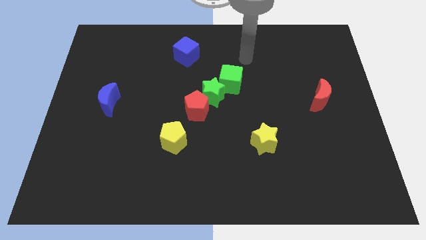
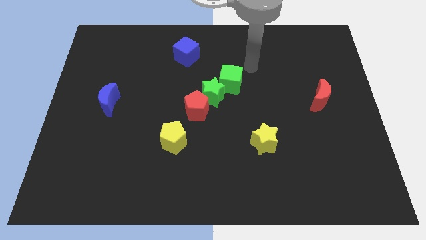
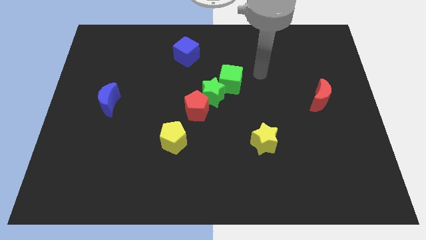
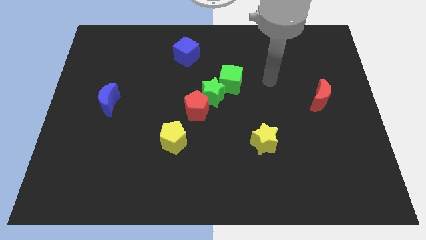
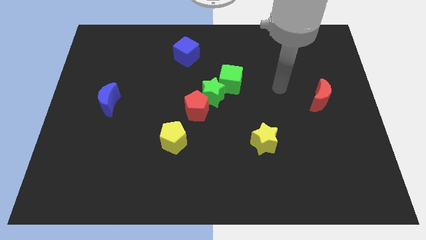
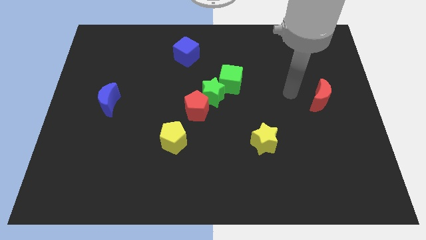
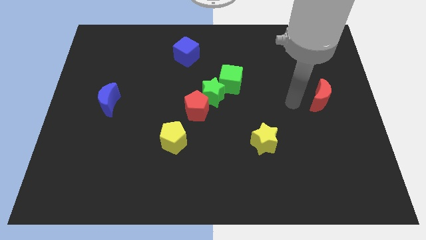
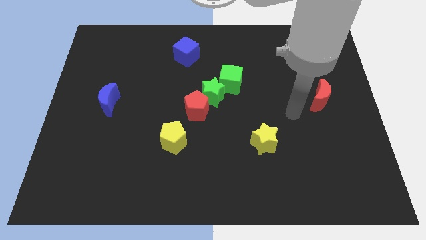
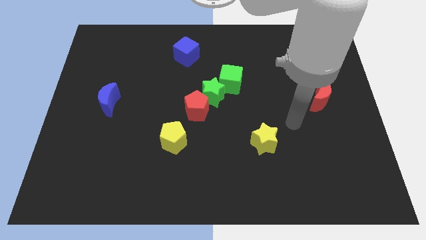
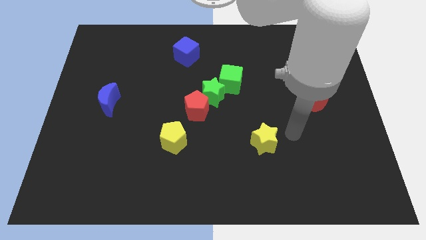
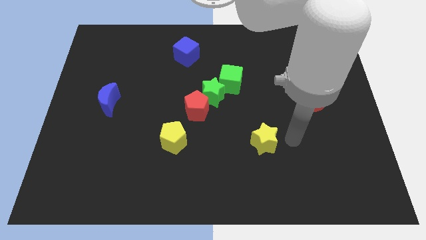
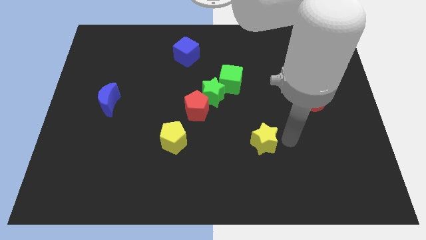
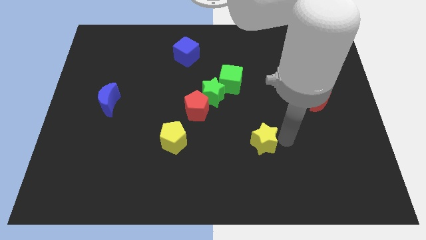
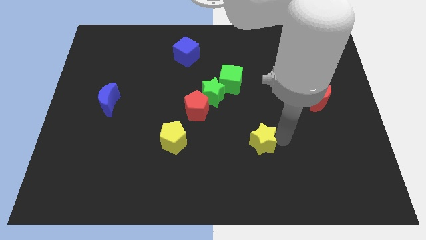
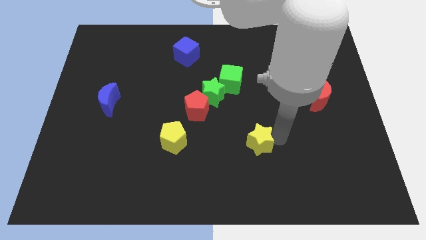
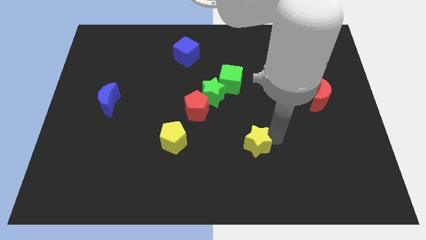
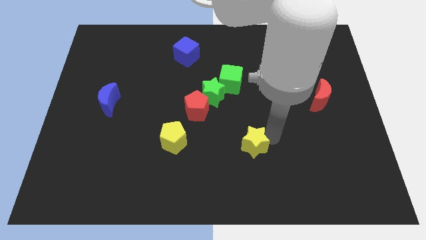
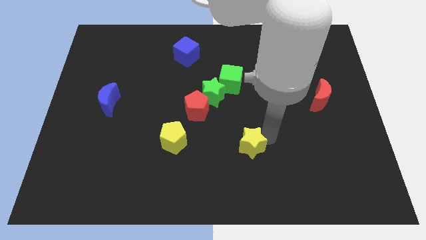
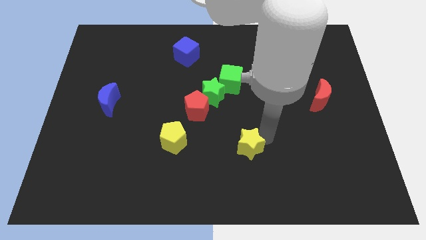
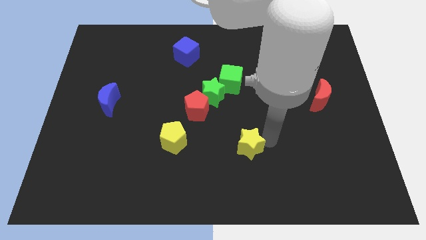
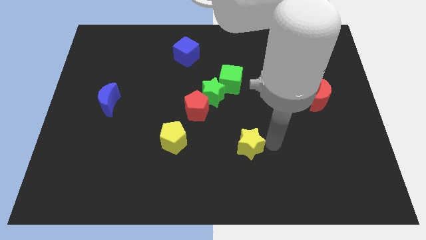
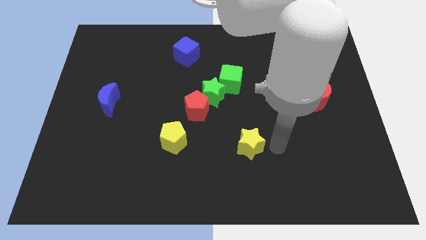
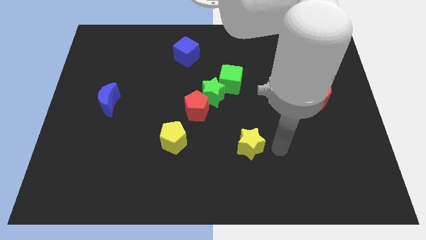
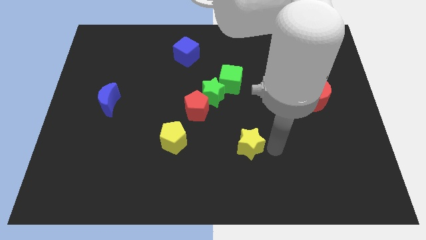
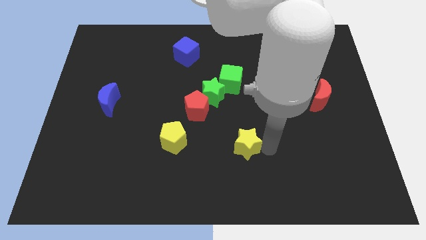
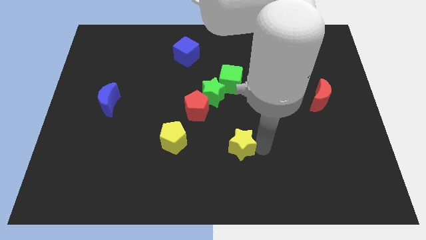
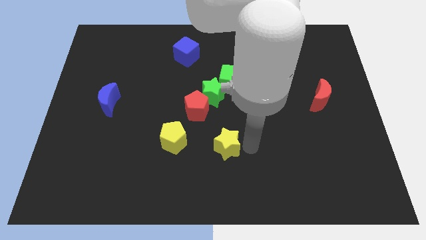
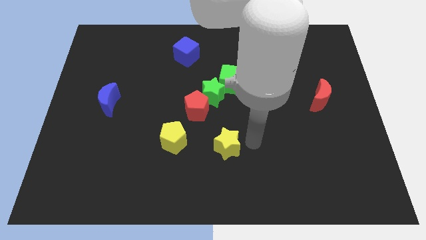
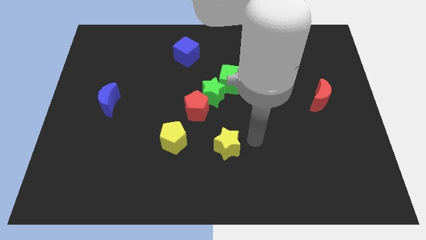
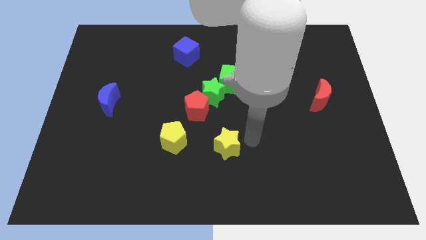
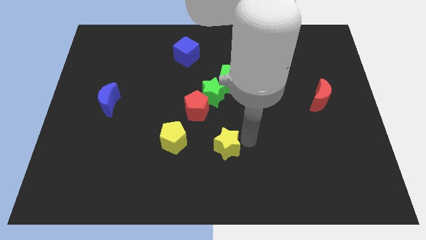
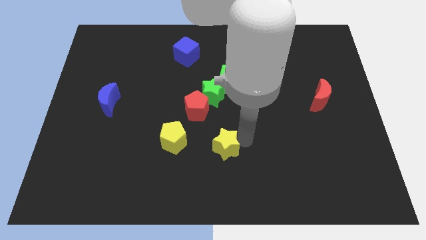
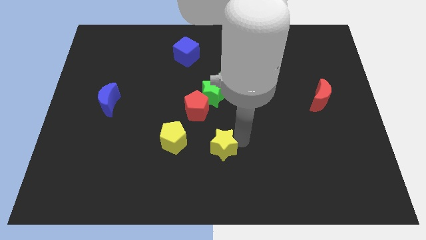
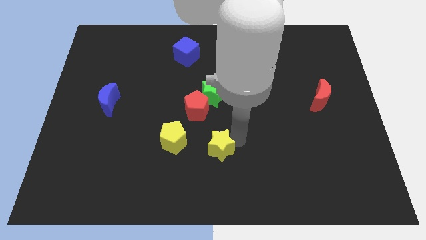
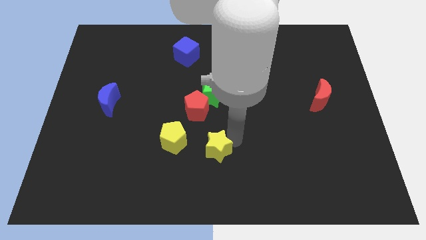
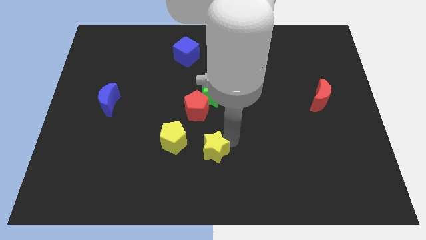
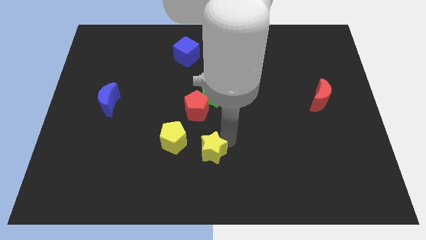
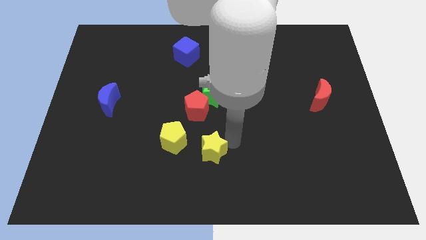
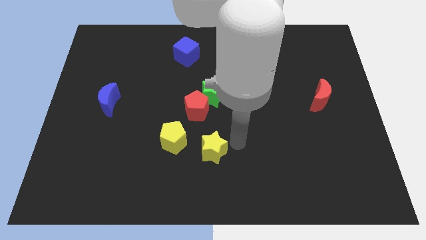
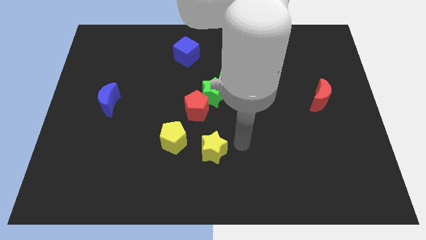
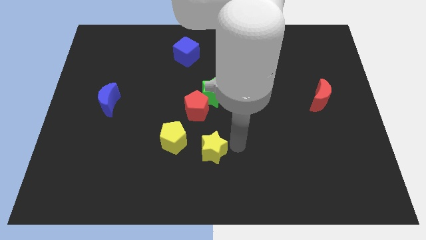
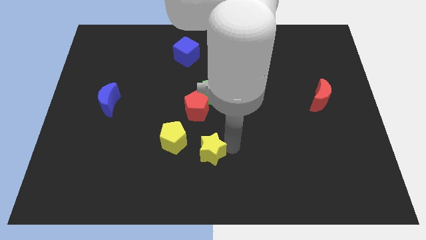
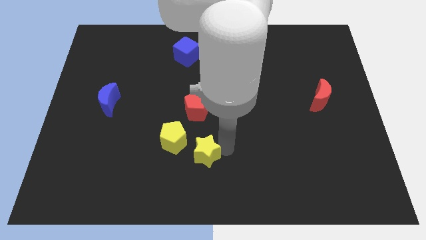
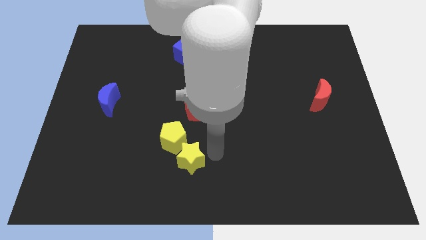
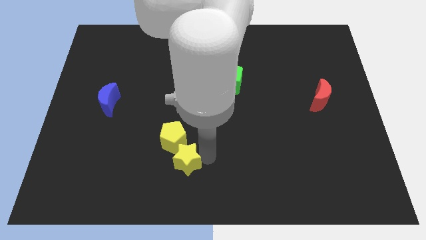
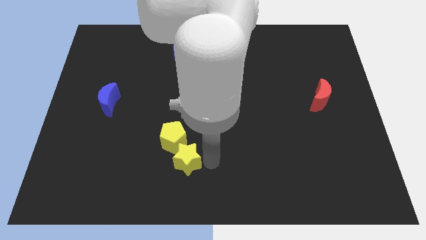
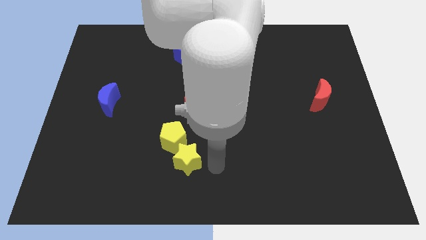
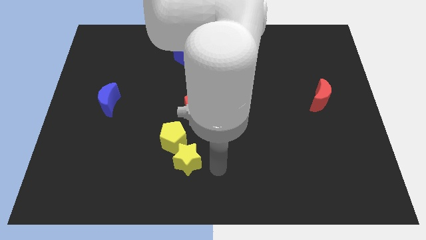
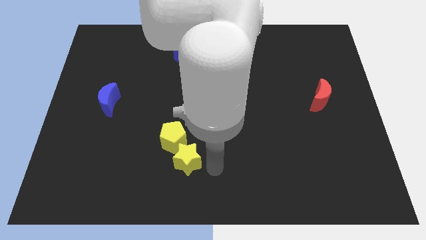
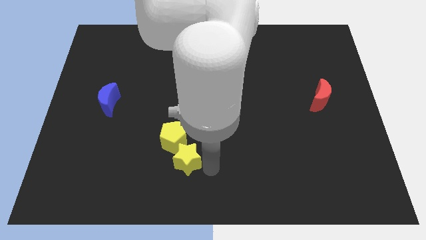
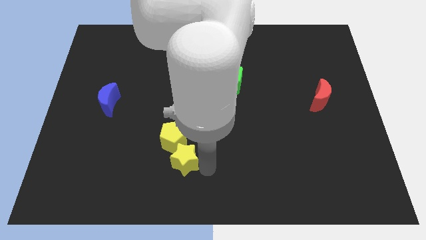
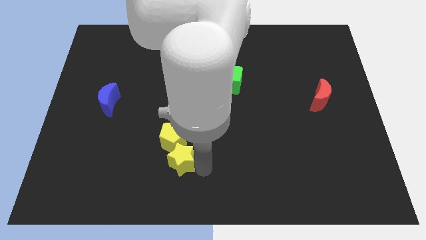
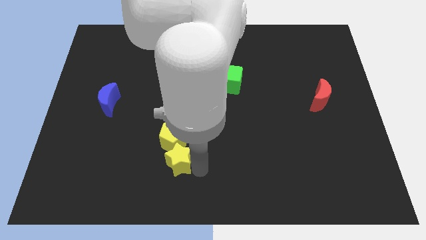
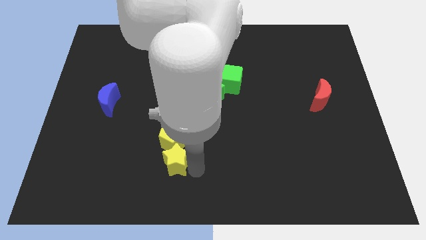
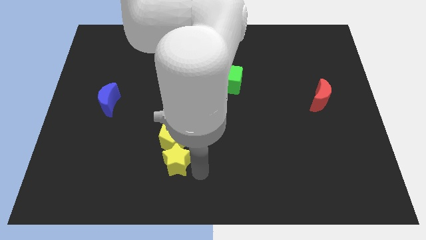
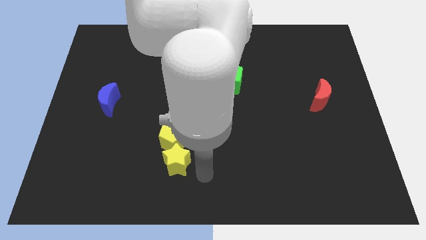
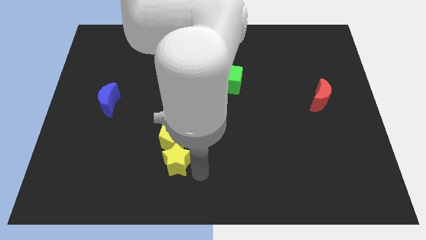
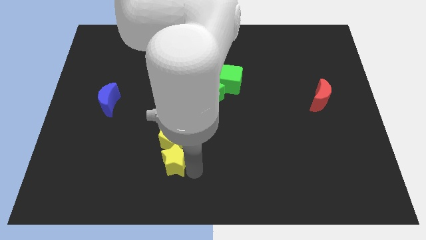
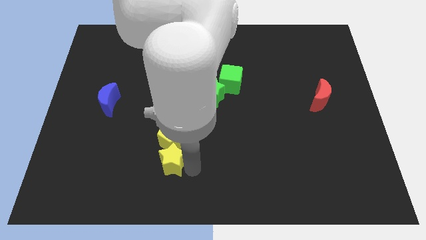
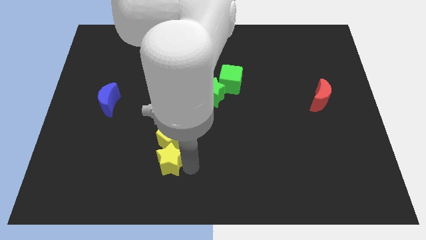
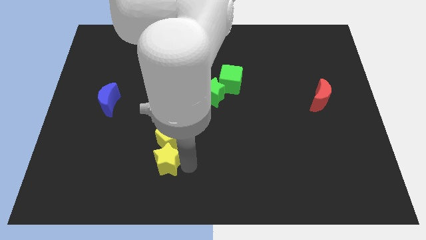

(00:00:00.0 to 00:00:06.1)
push the yellow star to the left

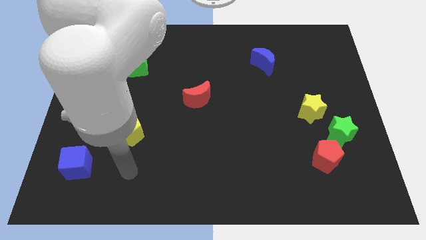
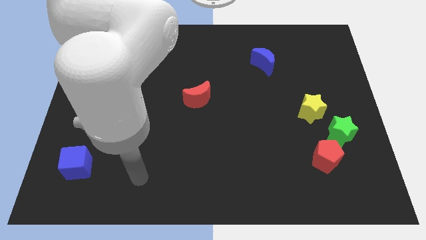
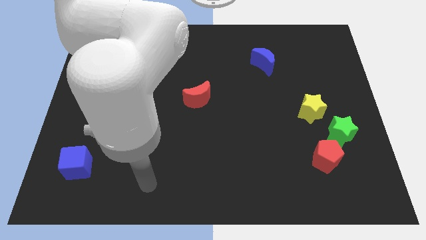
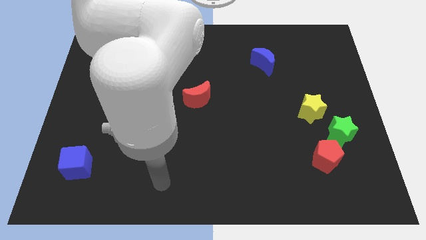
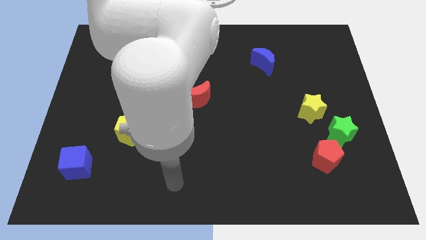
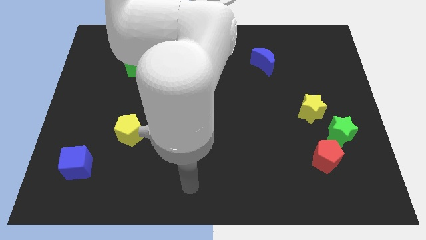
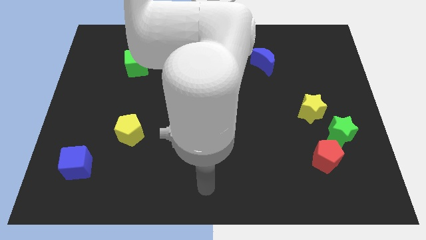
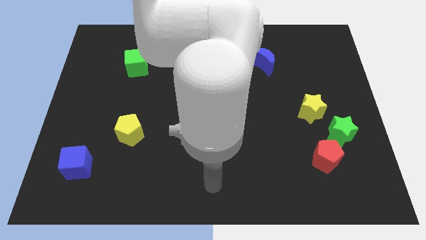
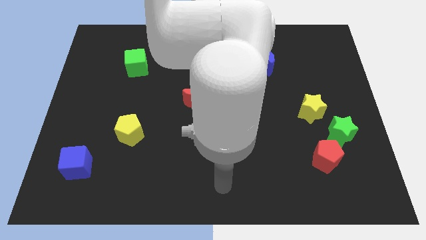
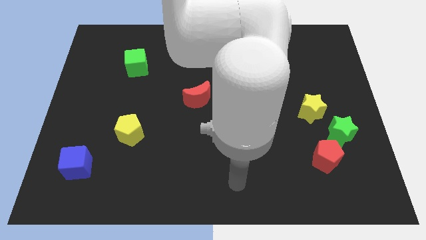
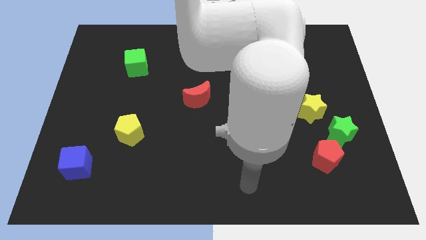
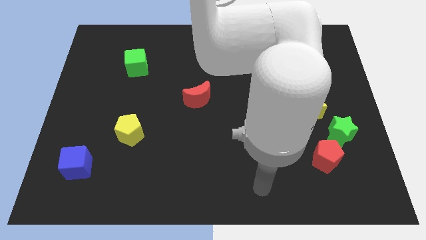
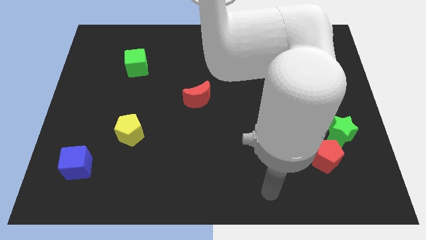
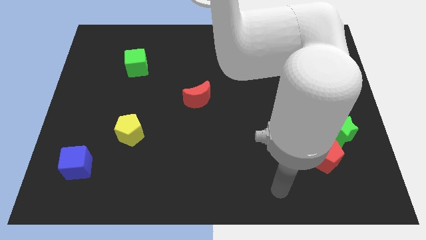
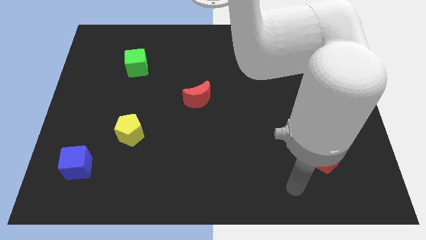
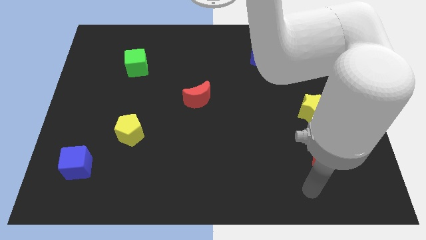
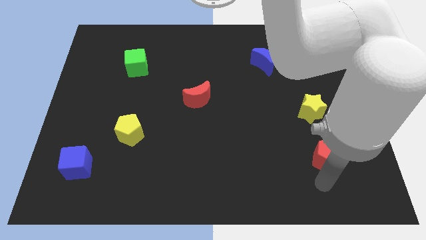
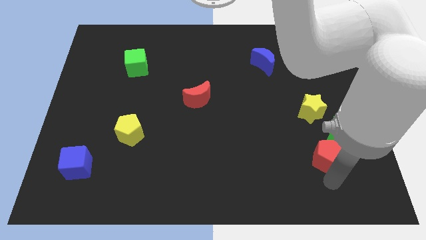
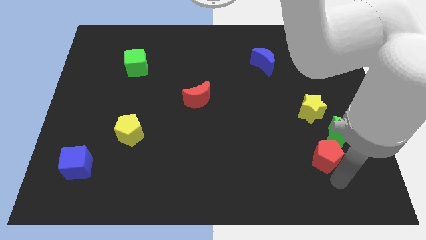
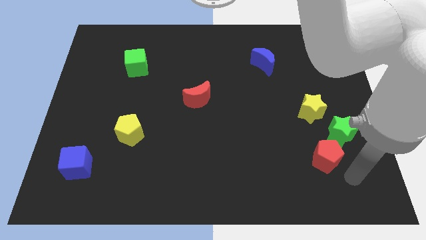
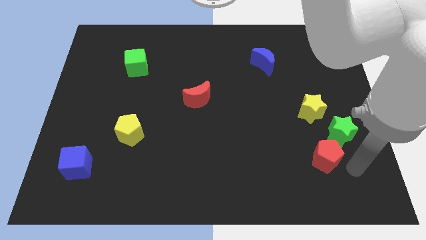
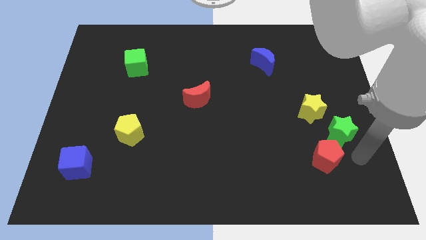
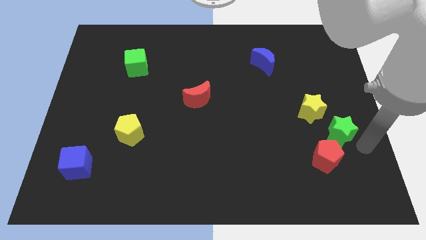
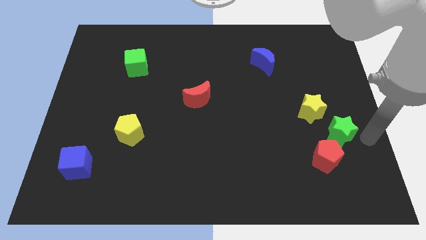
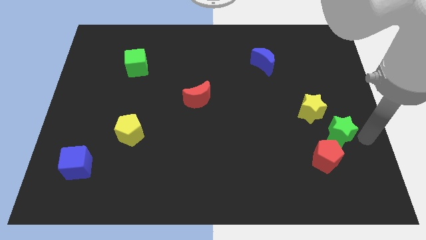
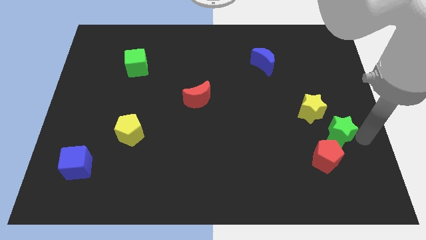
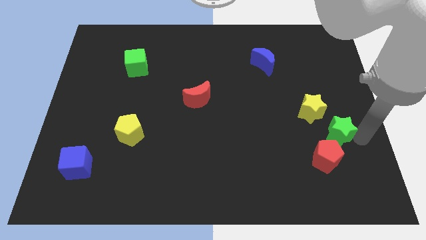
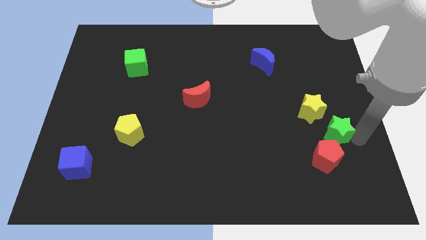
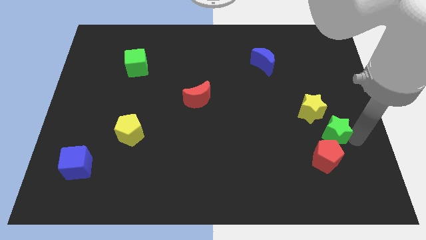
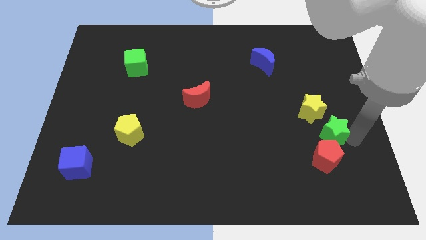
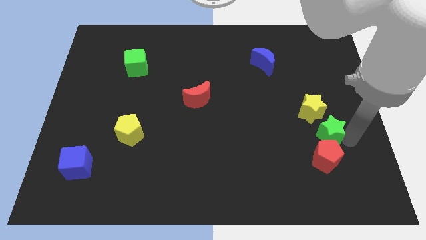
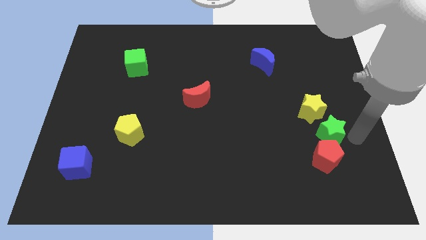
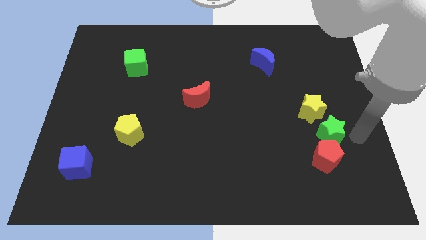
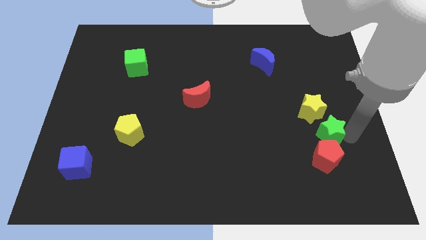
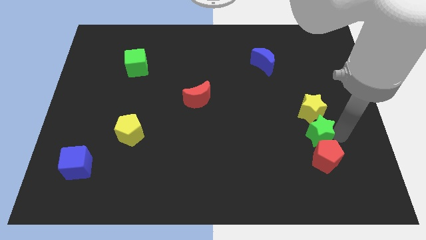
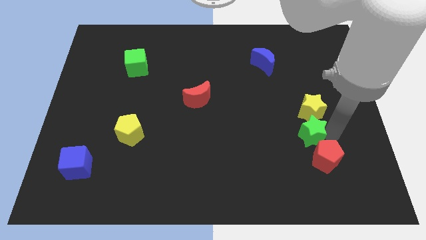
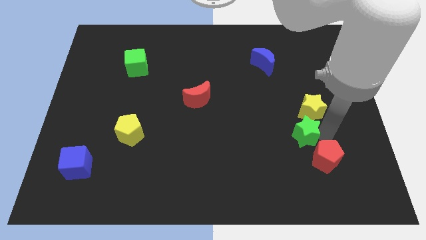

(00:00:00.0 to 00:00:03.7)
push the green star slightly to the left
